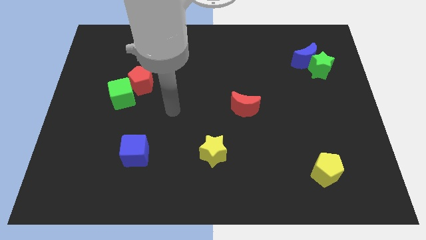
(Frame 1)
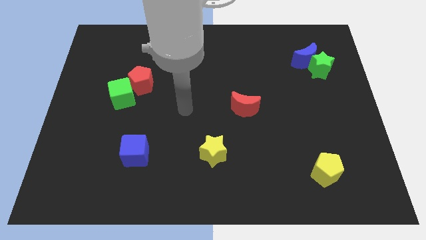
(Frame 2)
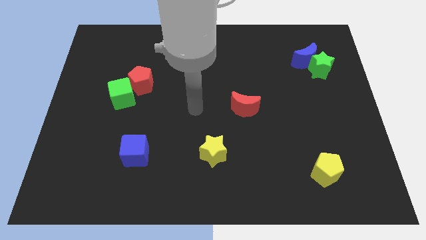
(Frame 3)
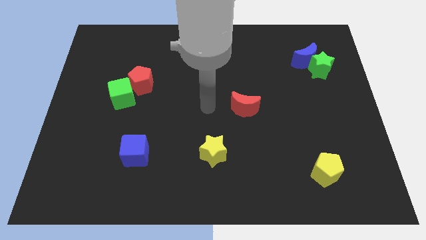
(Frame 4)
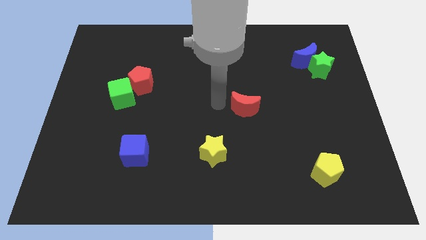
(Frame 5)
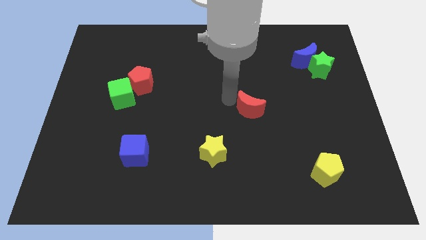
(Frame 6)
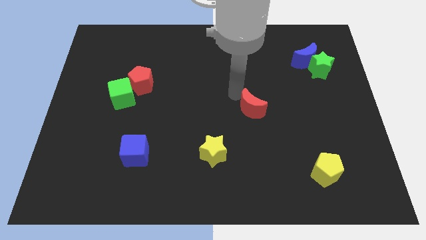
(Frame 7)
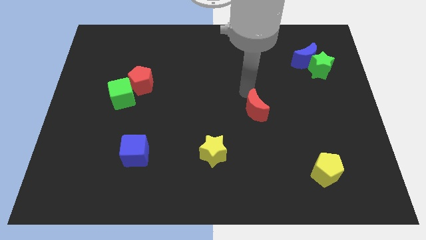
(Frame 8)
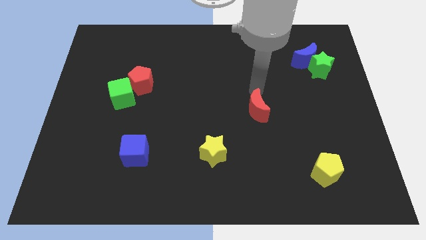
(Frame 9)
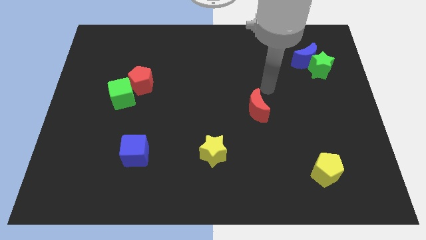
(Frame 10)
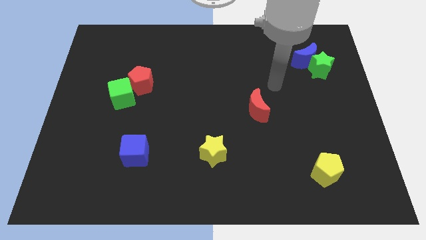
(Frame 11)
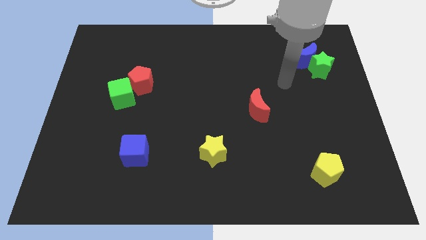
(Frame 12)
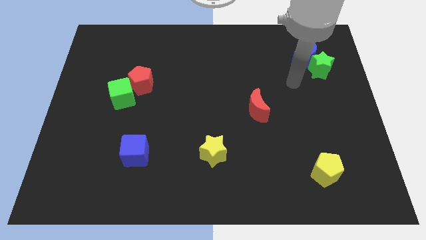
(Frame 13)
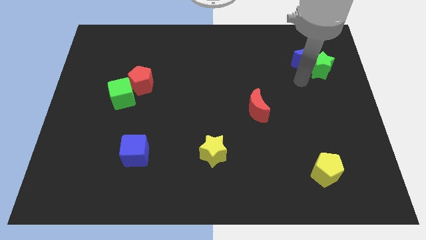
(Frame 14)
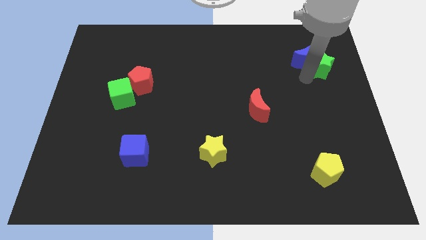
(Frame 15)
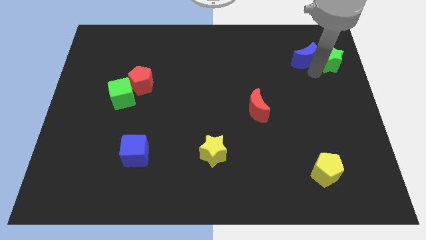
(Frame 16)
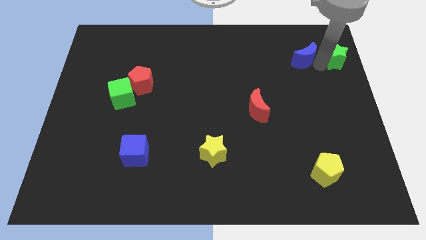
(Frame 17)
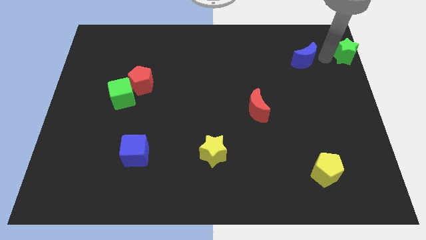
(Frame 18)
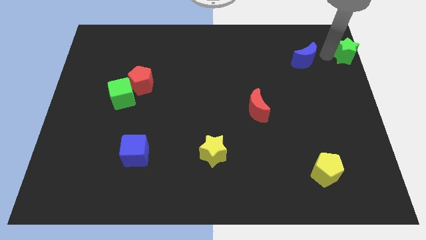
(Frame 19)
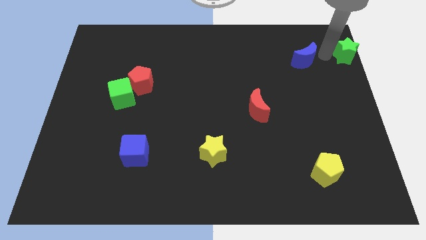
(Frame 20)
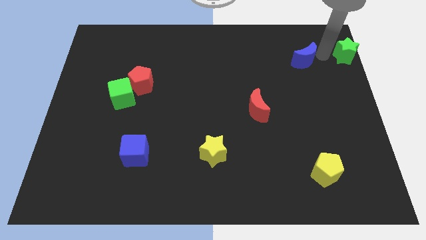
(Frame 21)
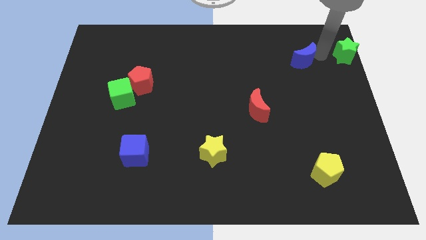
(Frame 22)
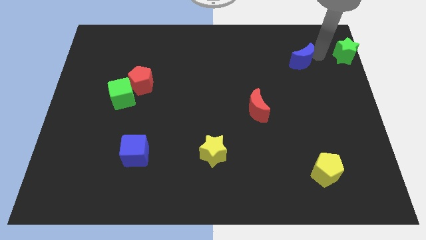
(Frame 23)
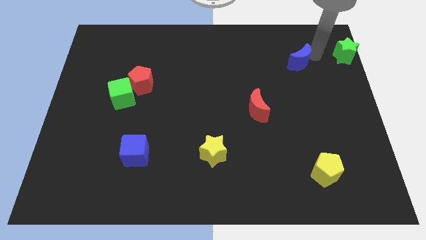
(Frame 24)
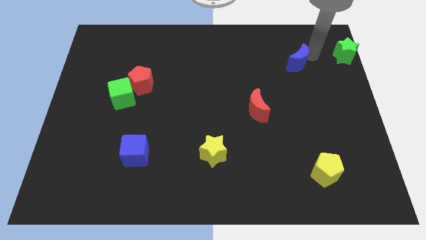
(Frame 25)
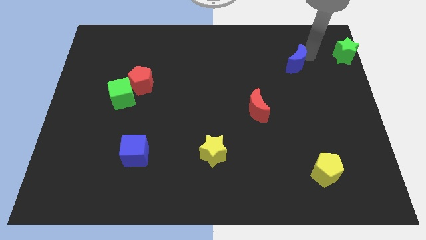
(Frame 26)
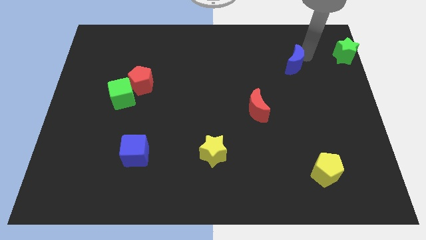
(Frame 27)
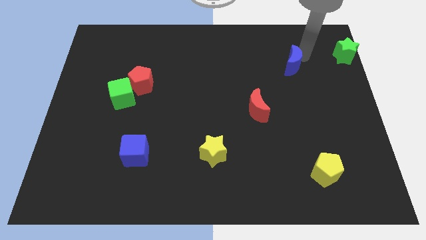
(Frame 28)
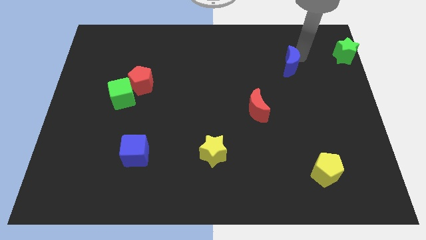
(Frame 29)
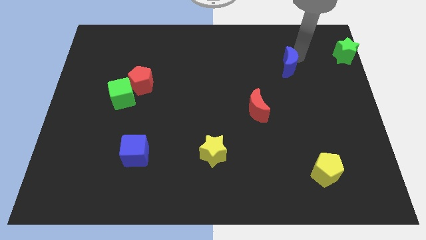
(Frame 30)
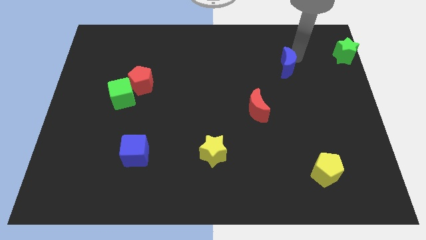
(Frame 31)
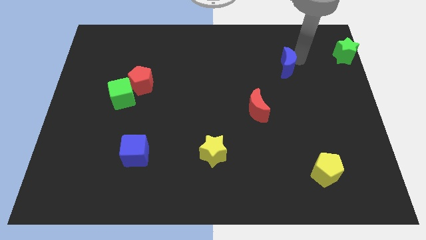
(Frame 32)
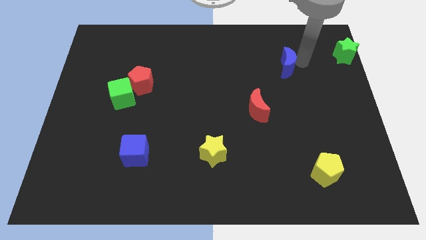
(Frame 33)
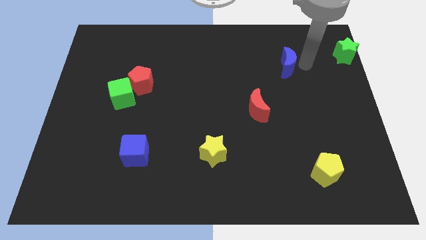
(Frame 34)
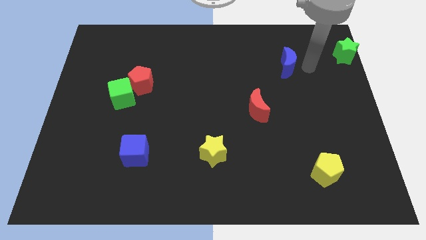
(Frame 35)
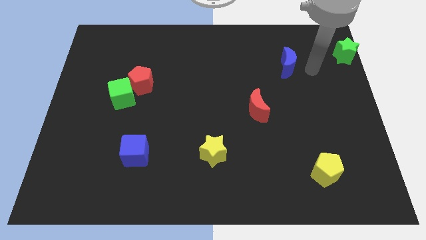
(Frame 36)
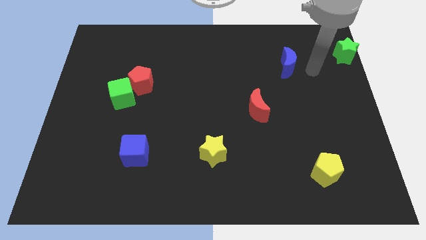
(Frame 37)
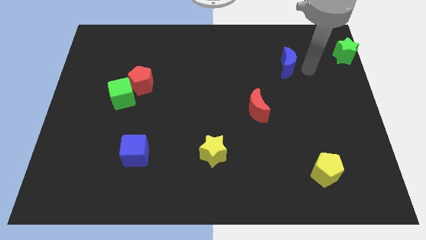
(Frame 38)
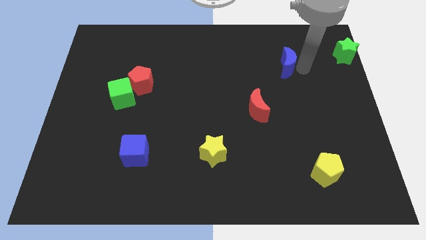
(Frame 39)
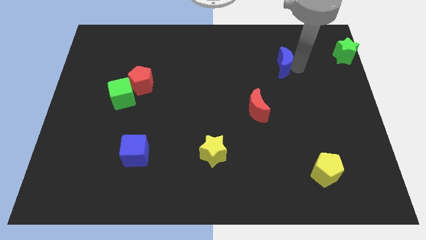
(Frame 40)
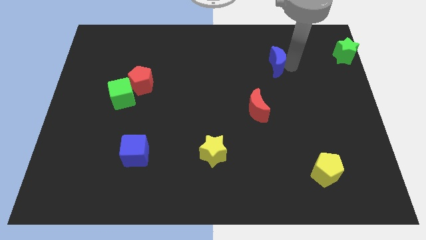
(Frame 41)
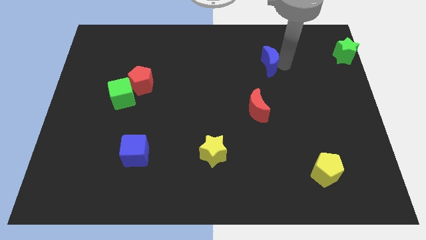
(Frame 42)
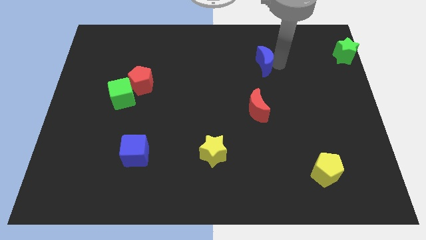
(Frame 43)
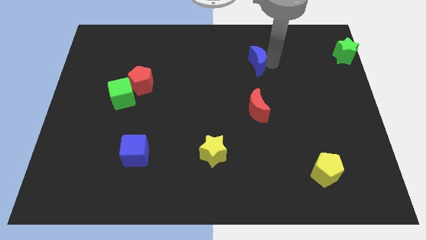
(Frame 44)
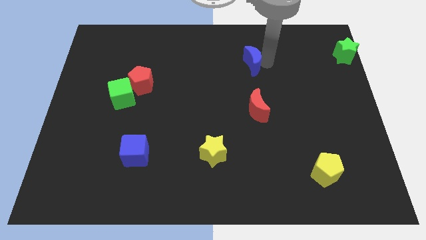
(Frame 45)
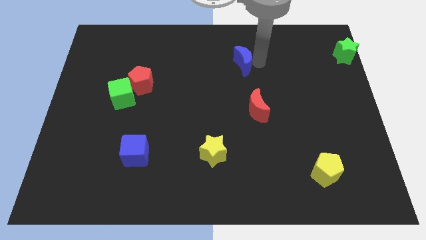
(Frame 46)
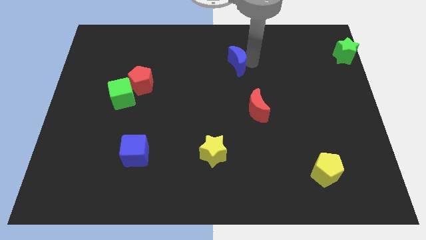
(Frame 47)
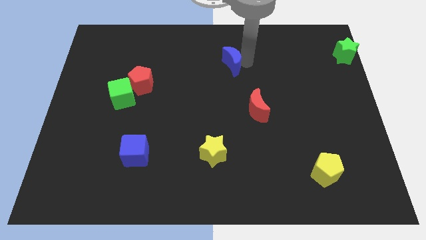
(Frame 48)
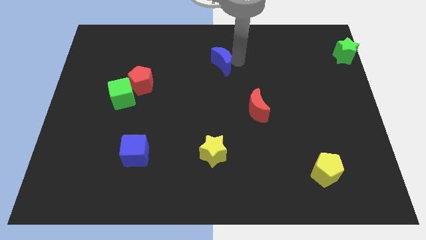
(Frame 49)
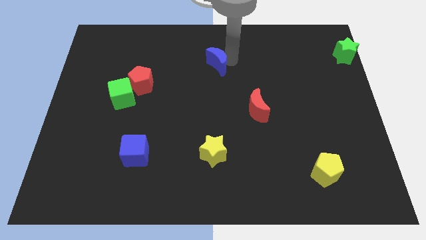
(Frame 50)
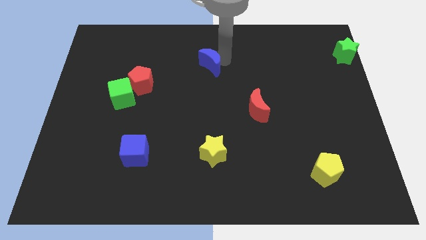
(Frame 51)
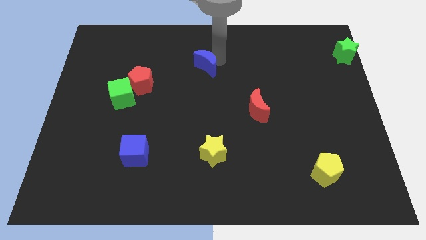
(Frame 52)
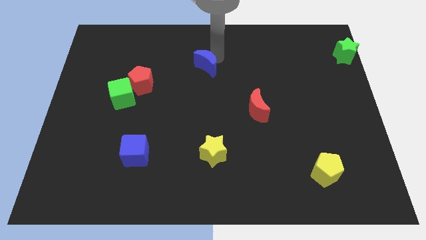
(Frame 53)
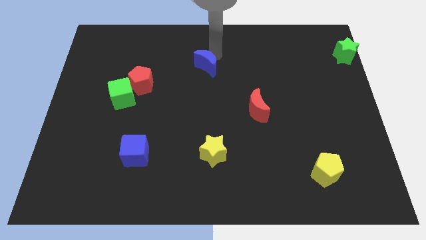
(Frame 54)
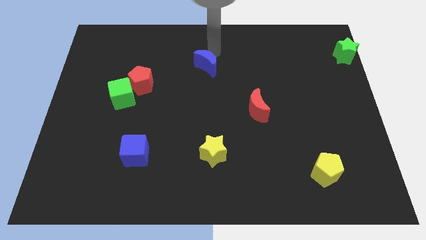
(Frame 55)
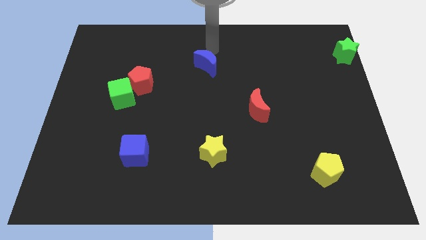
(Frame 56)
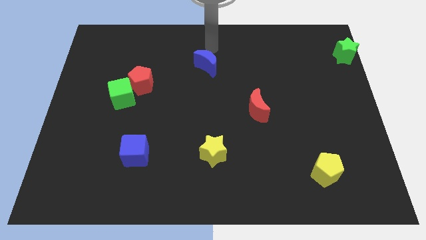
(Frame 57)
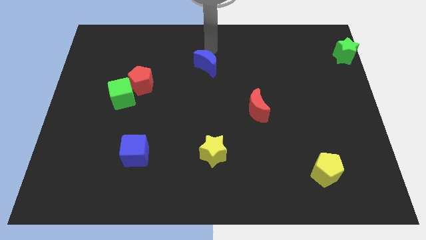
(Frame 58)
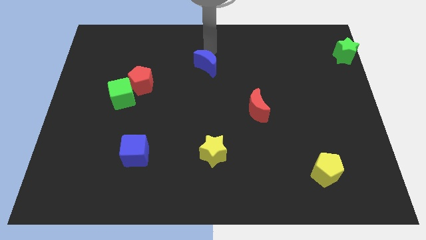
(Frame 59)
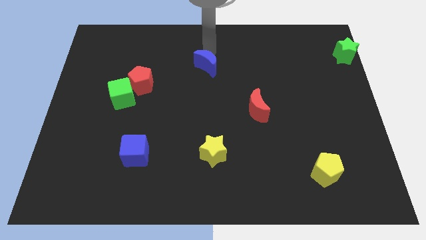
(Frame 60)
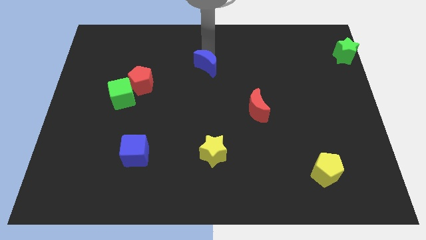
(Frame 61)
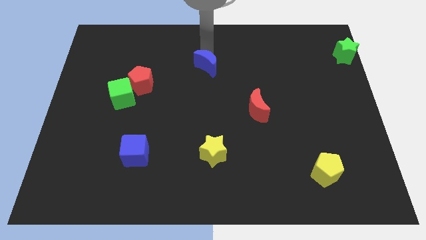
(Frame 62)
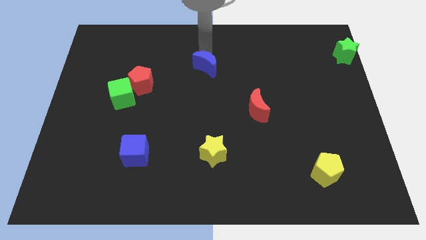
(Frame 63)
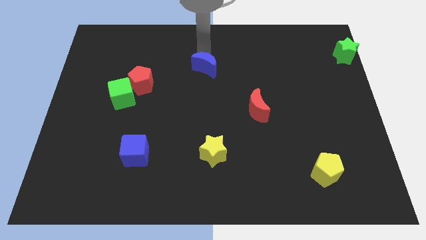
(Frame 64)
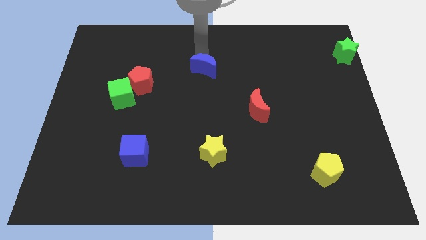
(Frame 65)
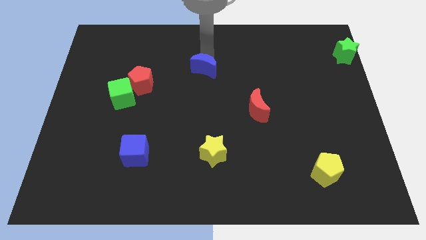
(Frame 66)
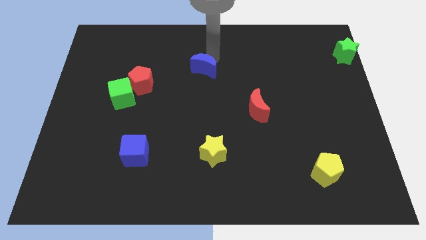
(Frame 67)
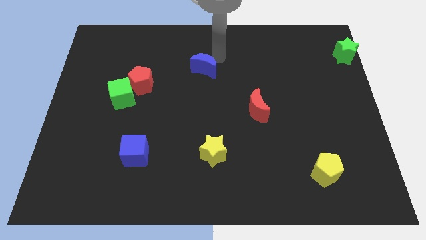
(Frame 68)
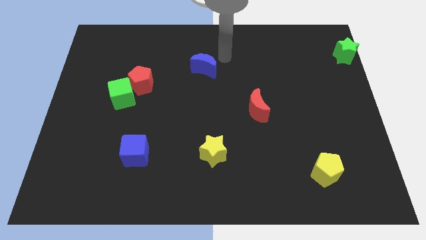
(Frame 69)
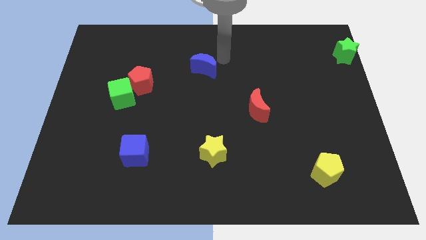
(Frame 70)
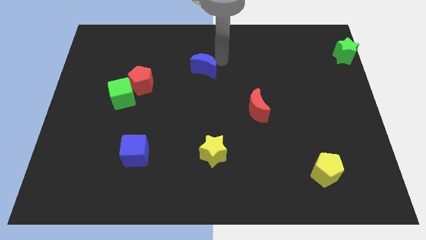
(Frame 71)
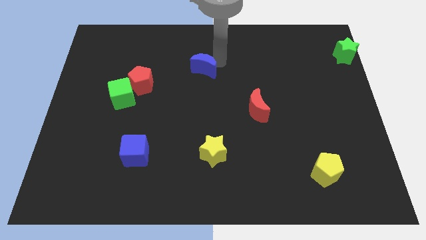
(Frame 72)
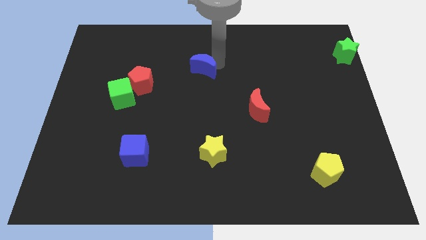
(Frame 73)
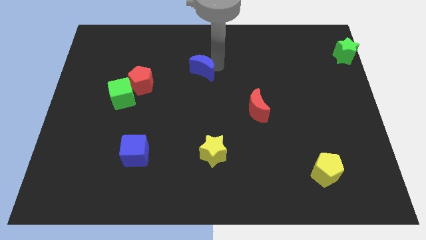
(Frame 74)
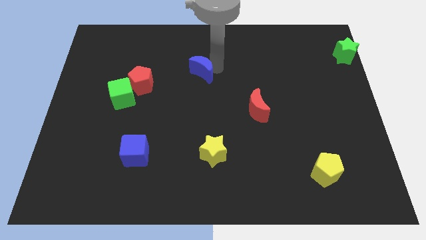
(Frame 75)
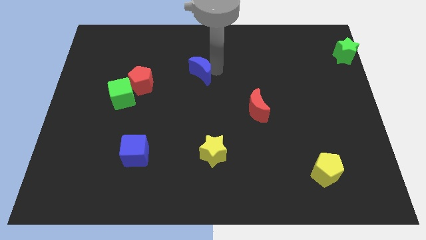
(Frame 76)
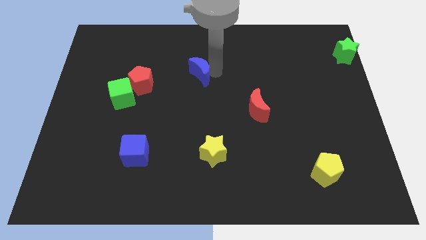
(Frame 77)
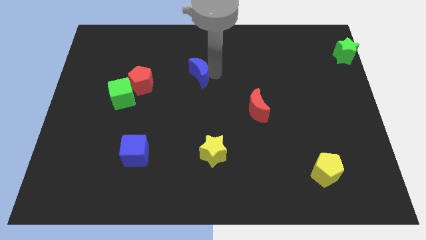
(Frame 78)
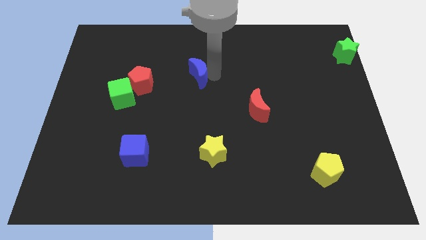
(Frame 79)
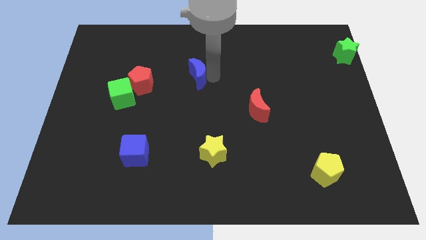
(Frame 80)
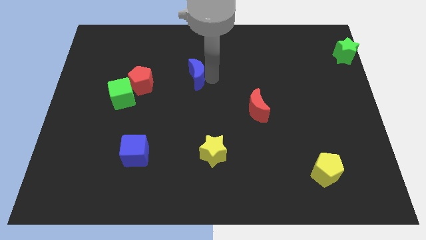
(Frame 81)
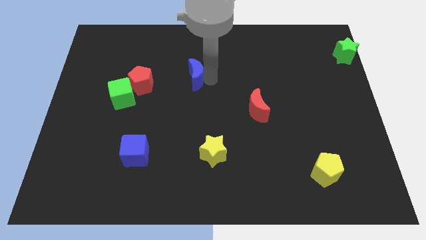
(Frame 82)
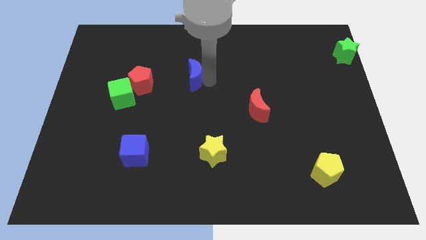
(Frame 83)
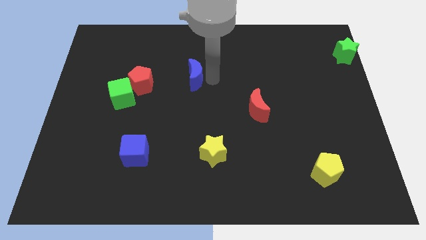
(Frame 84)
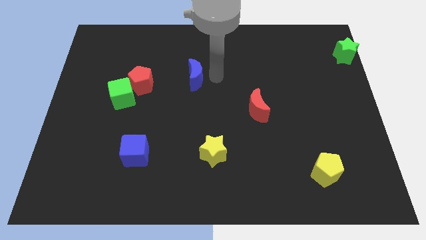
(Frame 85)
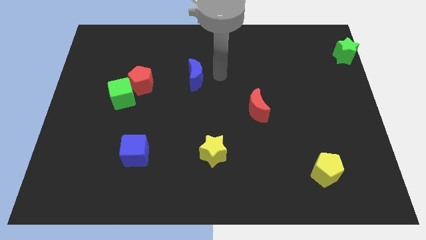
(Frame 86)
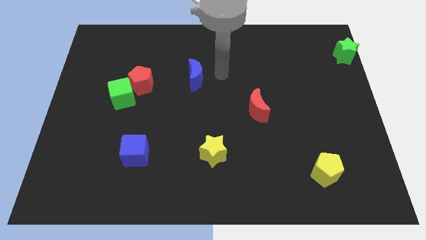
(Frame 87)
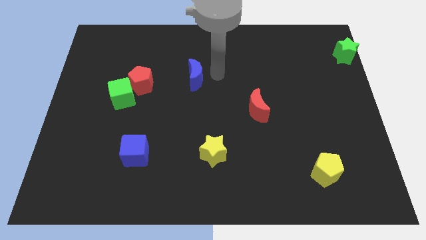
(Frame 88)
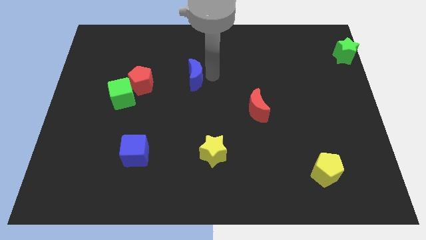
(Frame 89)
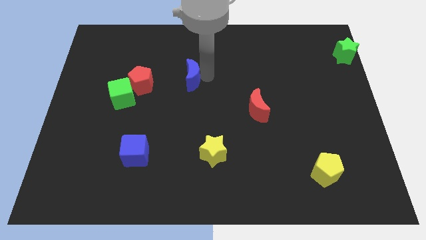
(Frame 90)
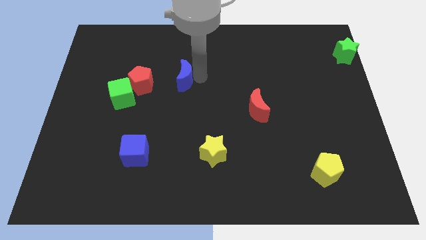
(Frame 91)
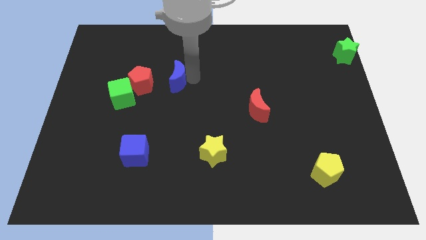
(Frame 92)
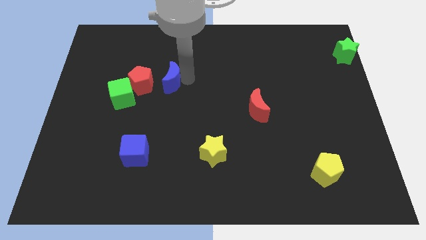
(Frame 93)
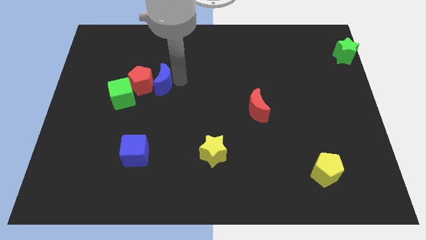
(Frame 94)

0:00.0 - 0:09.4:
move the blue moon towards the red pentagon
